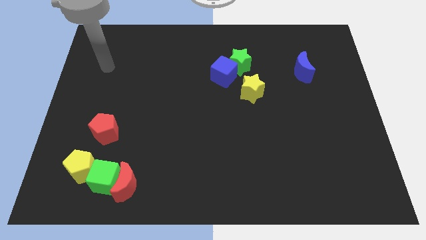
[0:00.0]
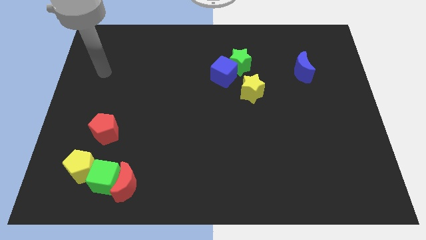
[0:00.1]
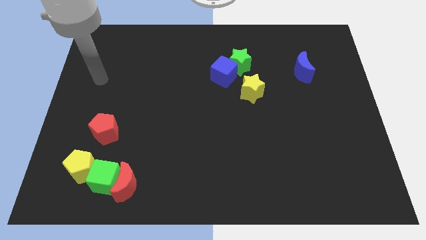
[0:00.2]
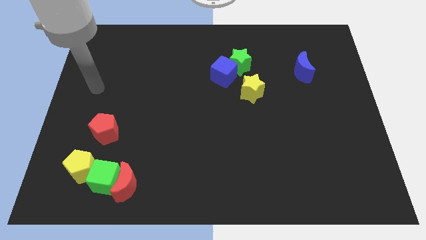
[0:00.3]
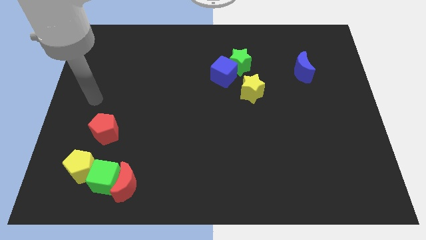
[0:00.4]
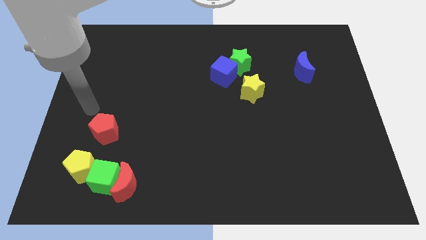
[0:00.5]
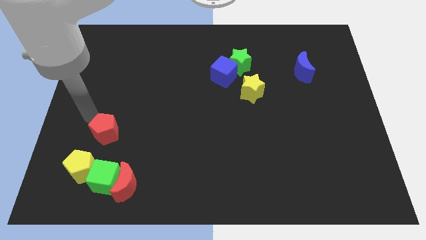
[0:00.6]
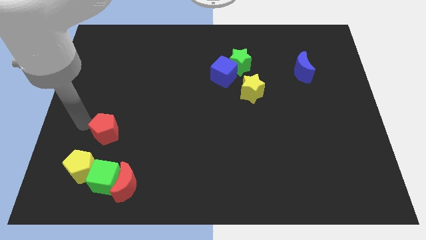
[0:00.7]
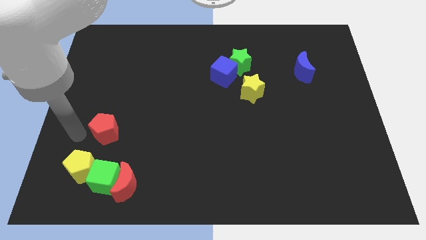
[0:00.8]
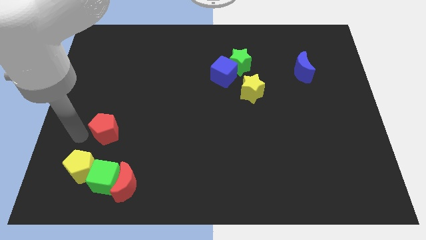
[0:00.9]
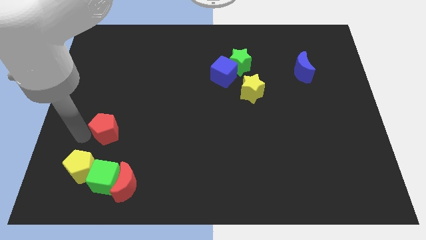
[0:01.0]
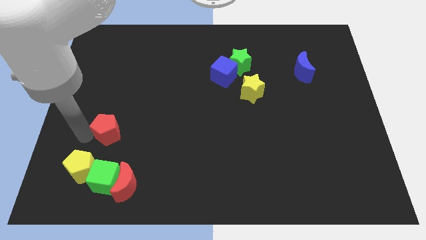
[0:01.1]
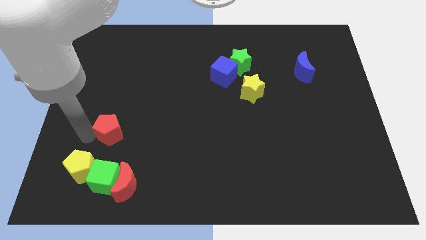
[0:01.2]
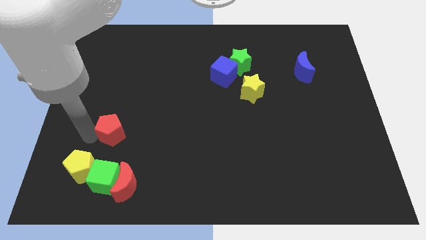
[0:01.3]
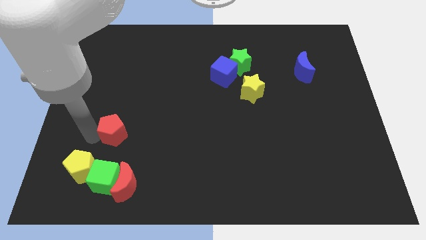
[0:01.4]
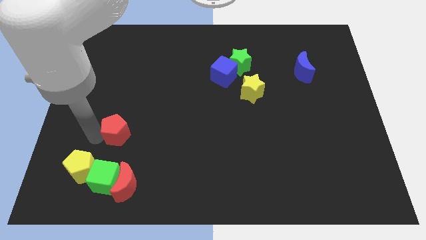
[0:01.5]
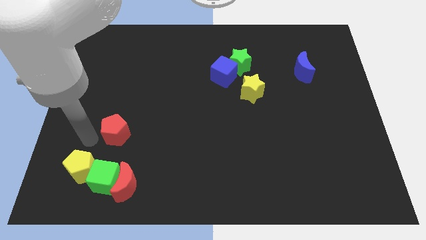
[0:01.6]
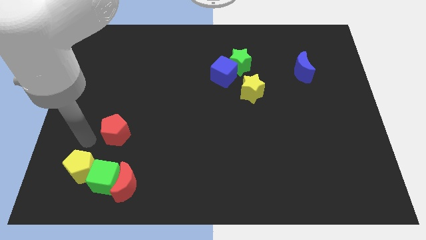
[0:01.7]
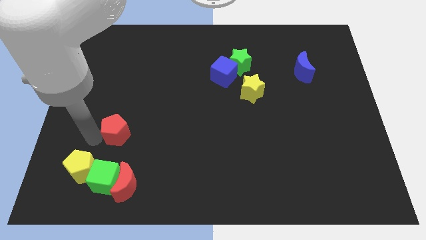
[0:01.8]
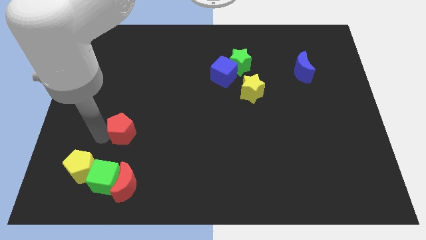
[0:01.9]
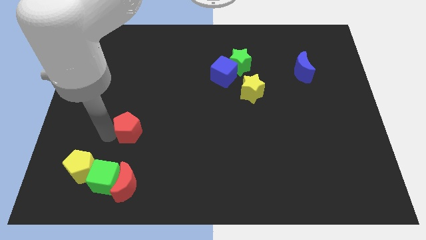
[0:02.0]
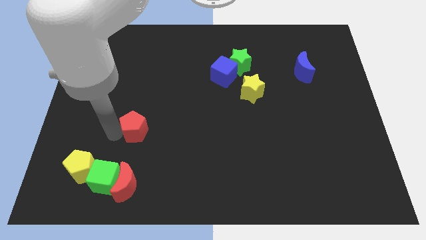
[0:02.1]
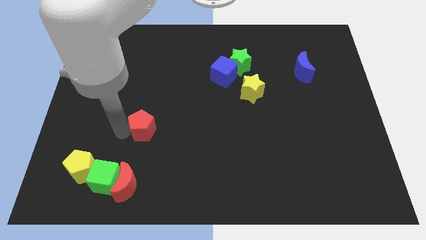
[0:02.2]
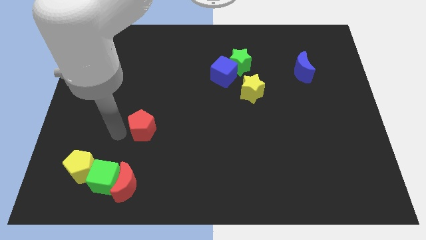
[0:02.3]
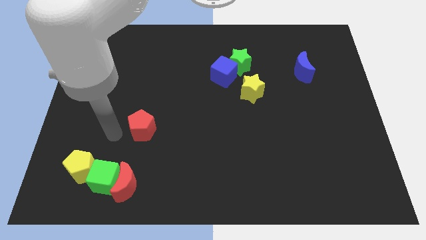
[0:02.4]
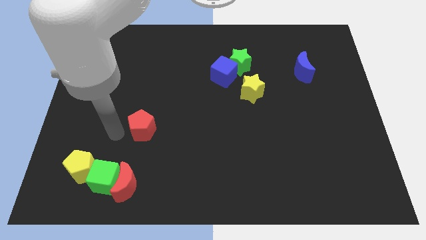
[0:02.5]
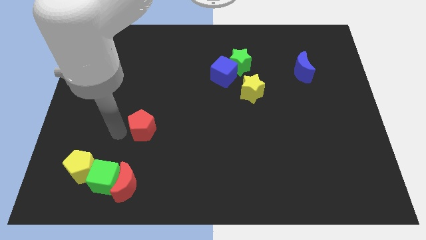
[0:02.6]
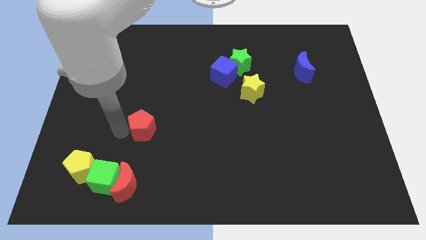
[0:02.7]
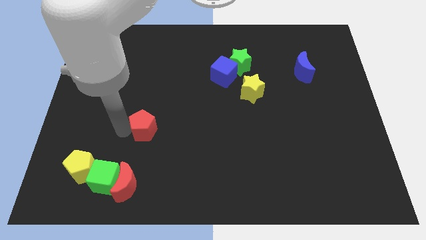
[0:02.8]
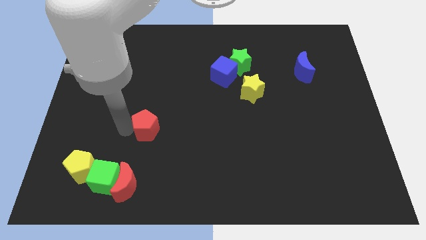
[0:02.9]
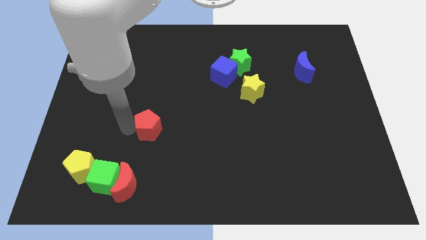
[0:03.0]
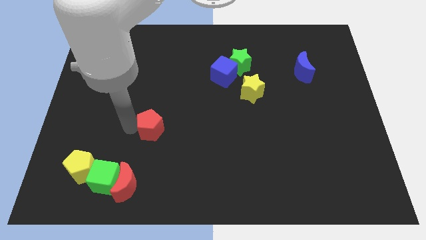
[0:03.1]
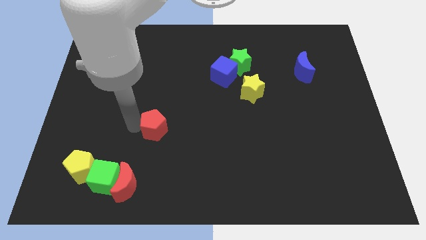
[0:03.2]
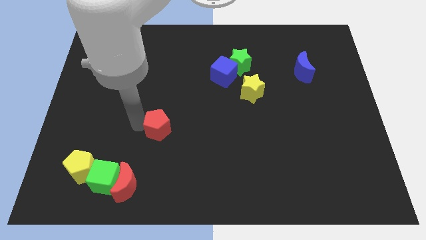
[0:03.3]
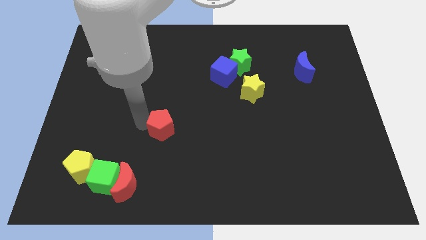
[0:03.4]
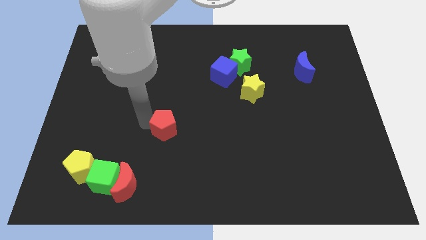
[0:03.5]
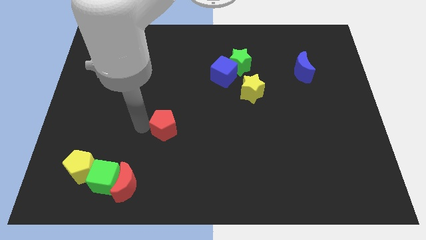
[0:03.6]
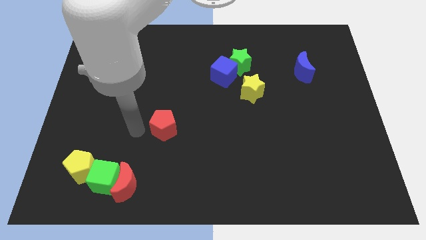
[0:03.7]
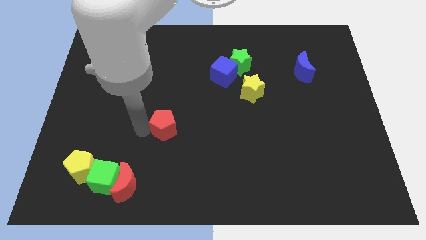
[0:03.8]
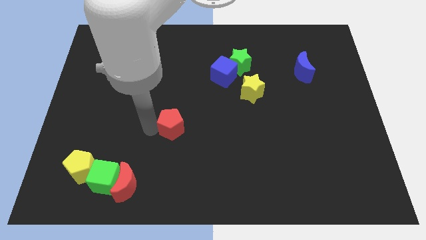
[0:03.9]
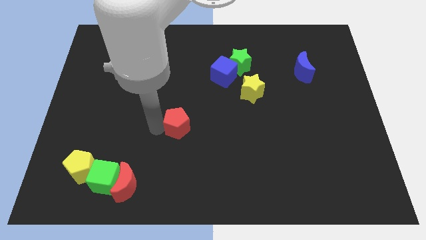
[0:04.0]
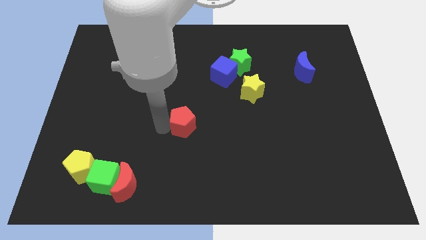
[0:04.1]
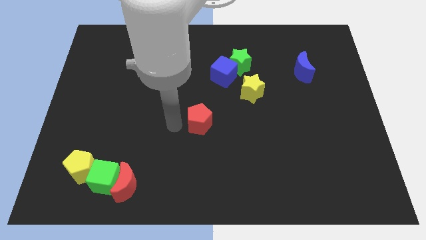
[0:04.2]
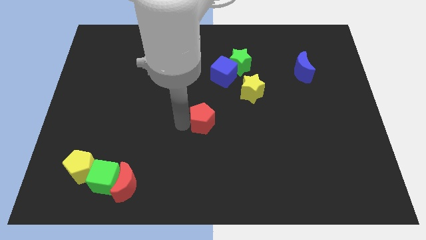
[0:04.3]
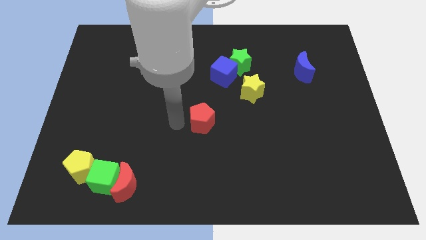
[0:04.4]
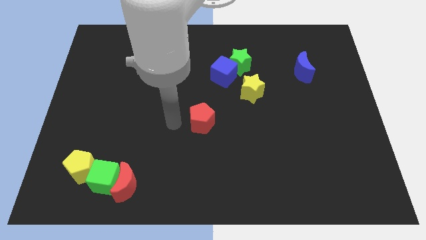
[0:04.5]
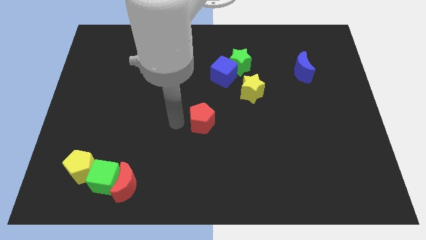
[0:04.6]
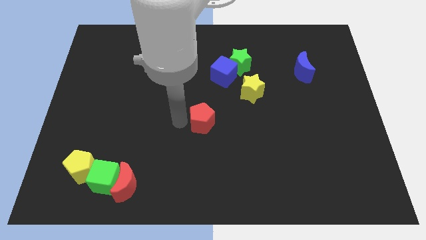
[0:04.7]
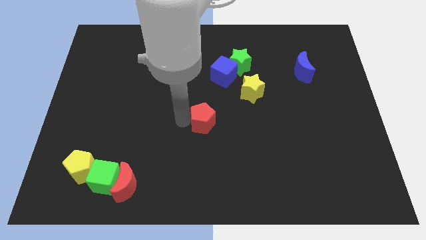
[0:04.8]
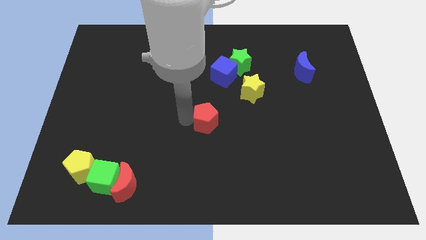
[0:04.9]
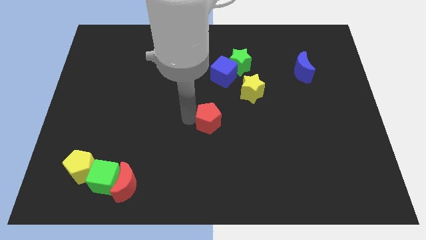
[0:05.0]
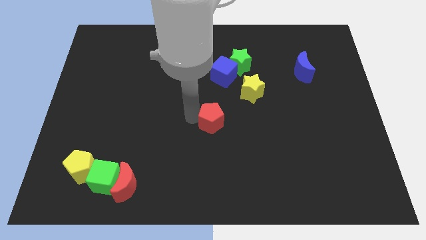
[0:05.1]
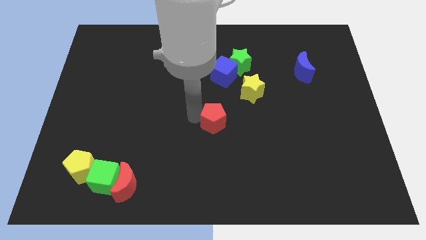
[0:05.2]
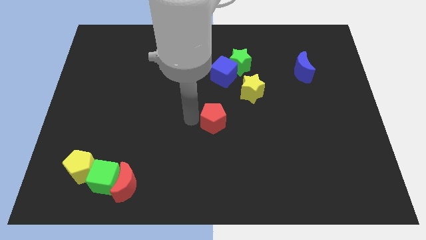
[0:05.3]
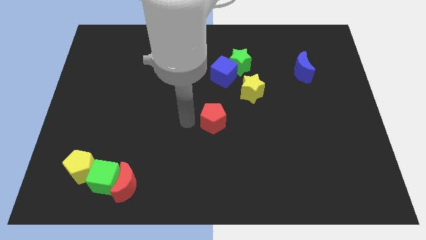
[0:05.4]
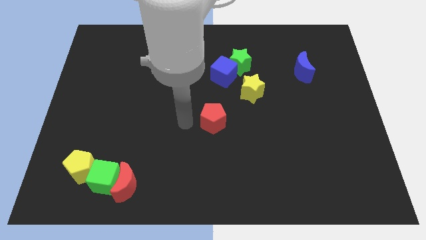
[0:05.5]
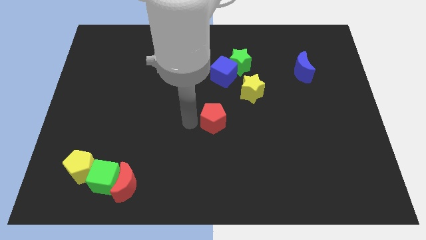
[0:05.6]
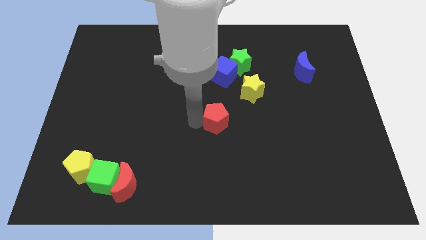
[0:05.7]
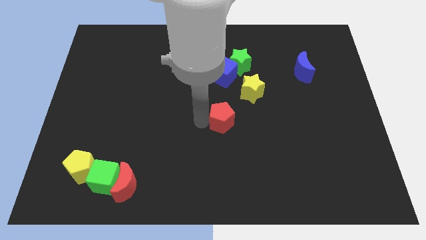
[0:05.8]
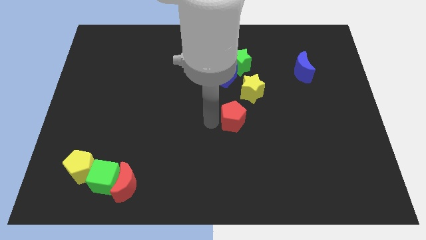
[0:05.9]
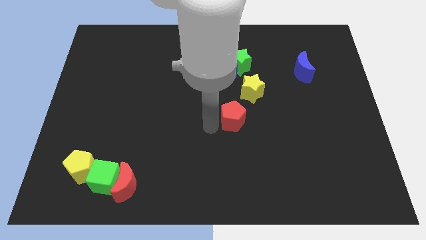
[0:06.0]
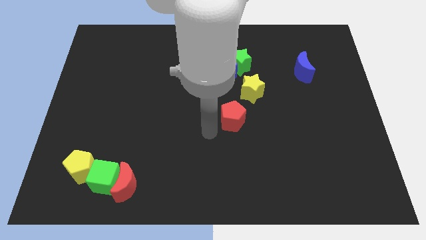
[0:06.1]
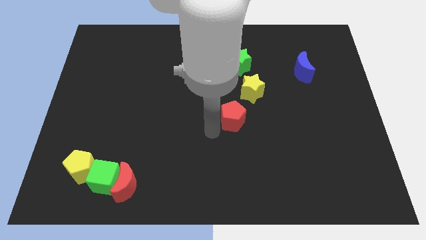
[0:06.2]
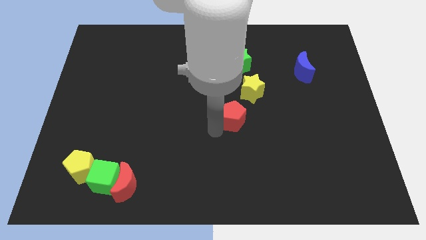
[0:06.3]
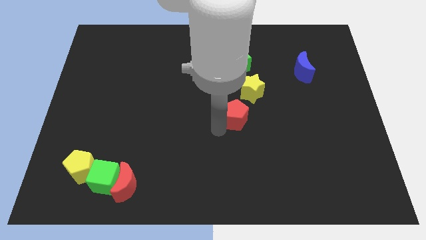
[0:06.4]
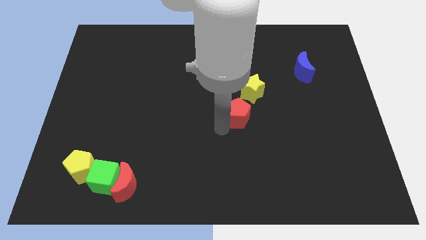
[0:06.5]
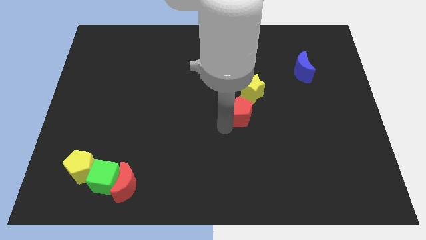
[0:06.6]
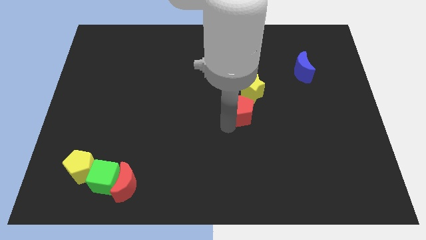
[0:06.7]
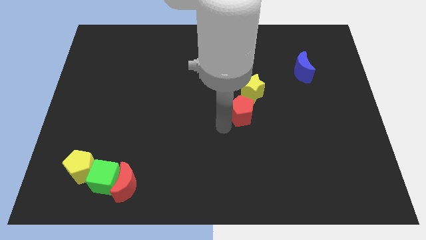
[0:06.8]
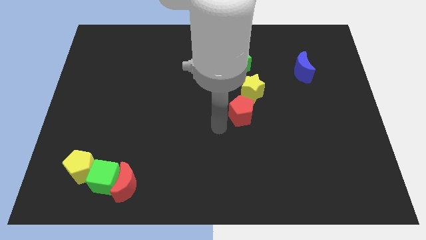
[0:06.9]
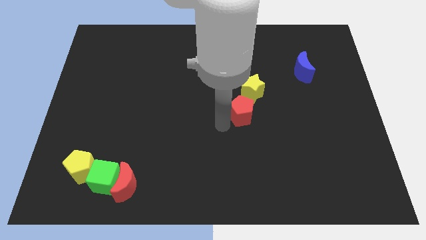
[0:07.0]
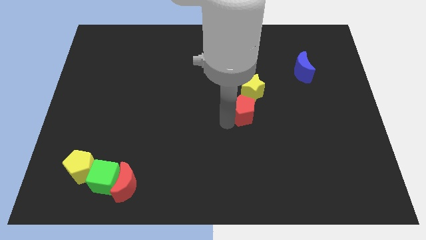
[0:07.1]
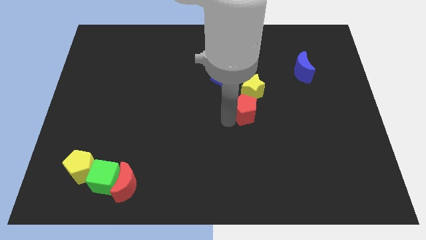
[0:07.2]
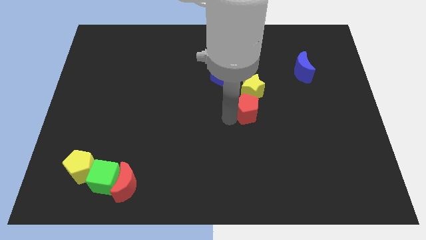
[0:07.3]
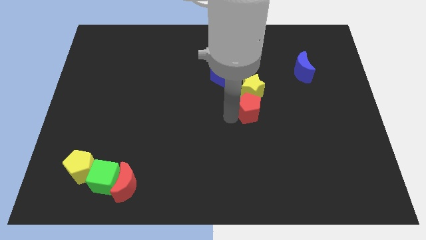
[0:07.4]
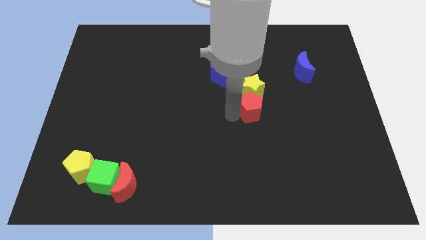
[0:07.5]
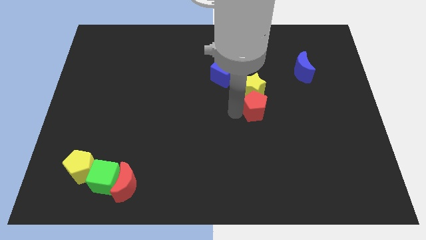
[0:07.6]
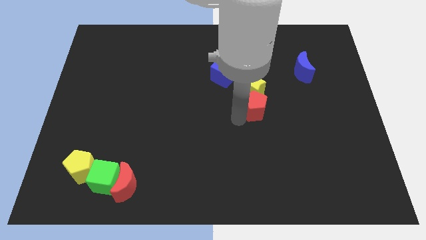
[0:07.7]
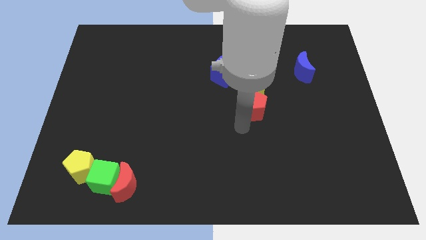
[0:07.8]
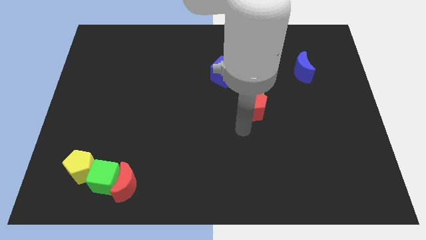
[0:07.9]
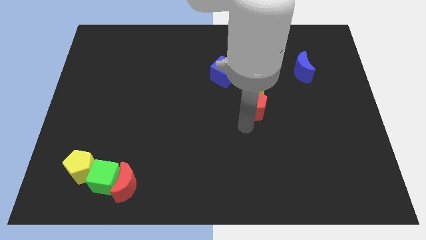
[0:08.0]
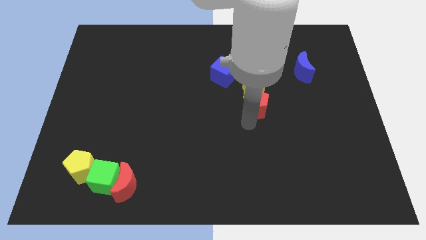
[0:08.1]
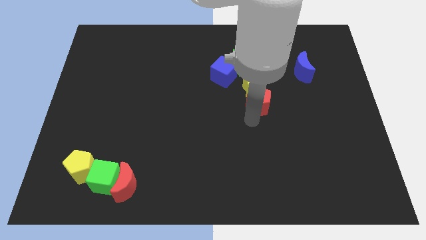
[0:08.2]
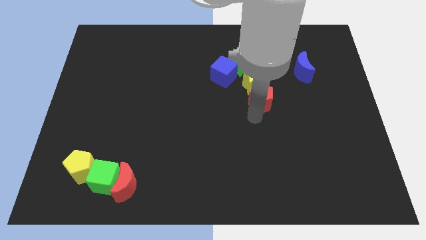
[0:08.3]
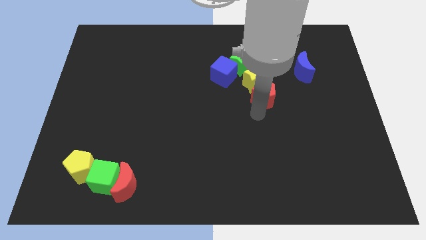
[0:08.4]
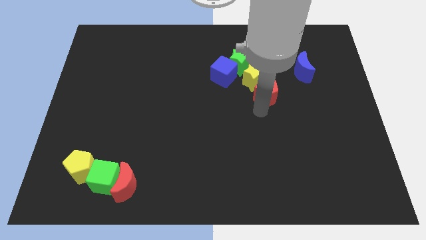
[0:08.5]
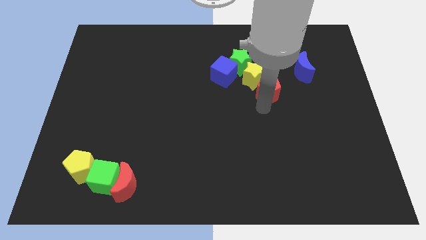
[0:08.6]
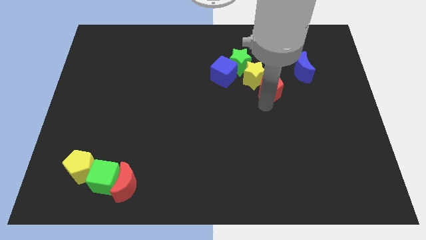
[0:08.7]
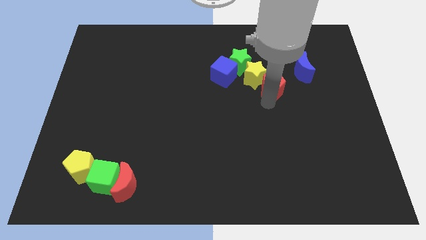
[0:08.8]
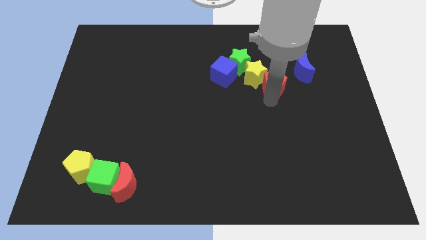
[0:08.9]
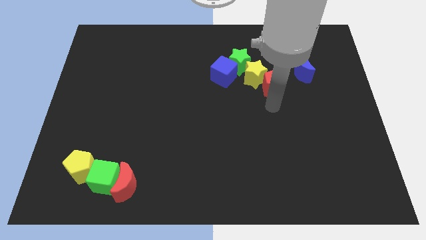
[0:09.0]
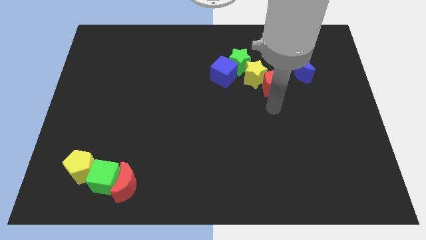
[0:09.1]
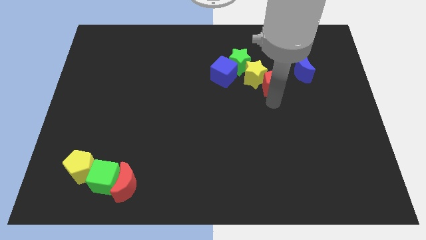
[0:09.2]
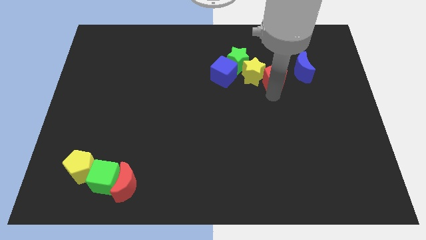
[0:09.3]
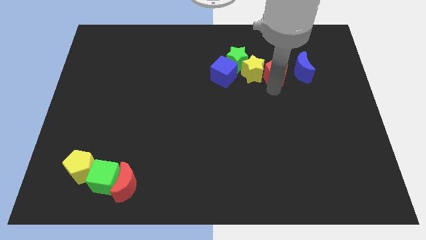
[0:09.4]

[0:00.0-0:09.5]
put the red pentagon to the top right side of the yellow star
